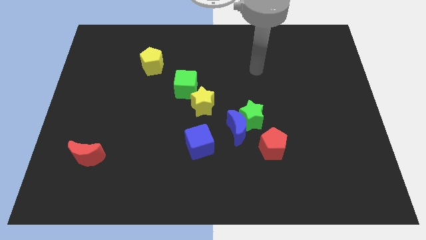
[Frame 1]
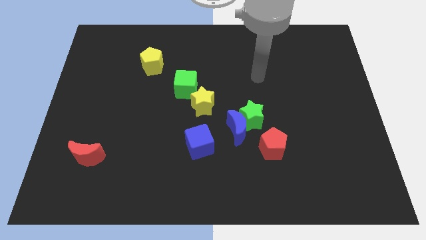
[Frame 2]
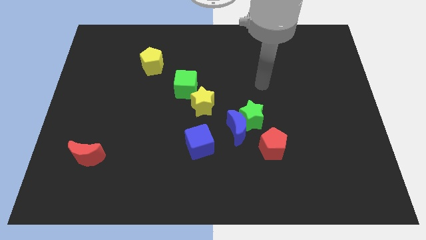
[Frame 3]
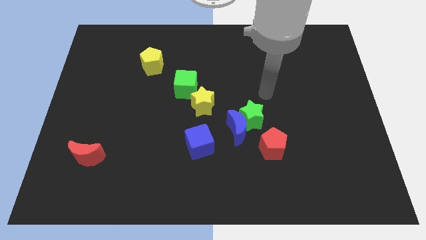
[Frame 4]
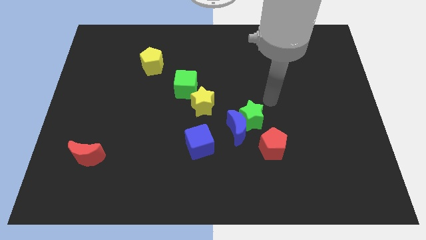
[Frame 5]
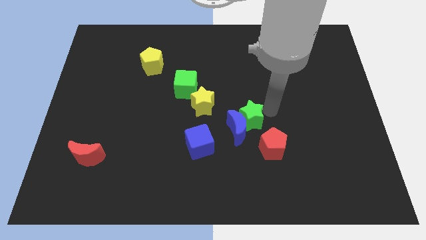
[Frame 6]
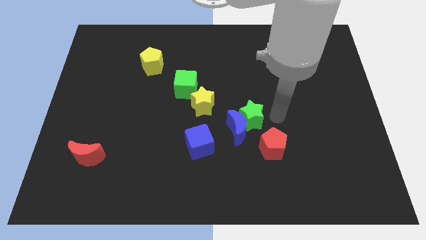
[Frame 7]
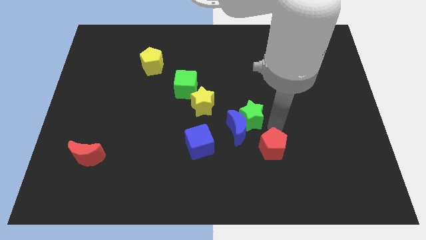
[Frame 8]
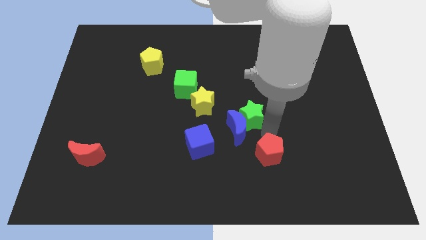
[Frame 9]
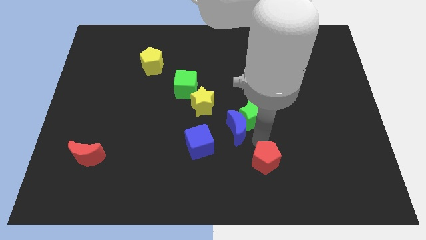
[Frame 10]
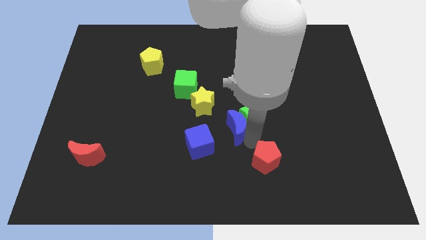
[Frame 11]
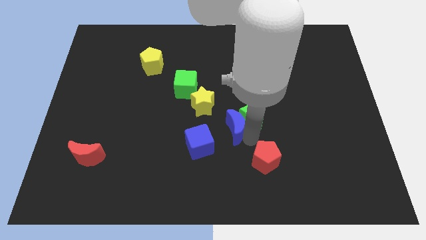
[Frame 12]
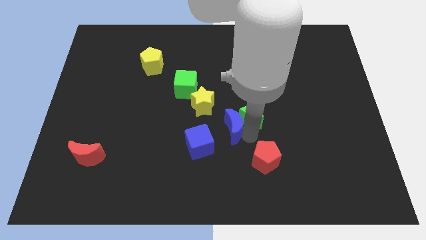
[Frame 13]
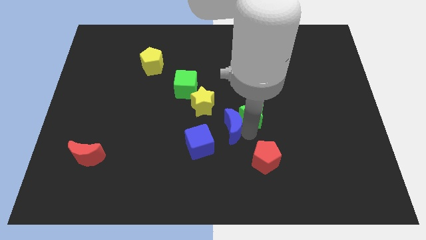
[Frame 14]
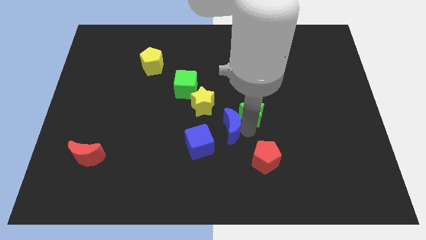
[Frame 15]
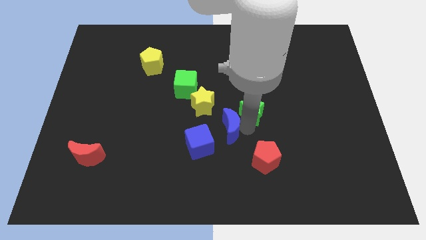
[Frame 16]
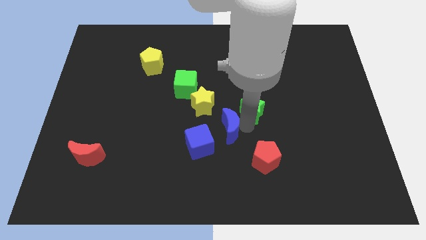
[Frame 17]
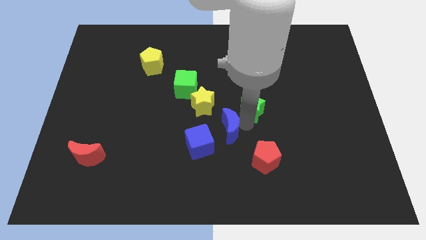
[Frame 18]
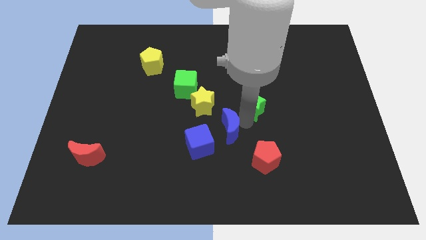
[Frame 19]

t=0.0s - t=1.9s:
pull the green star apart from the blue moon and red pentagon

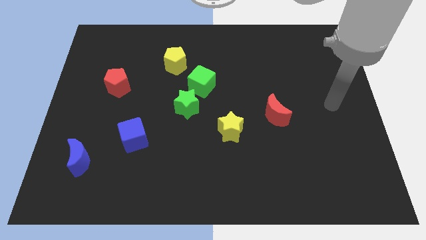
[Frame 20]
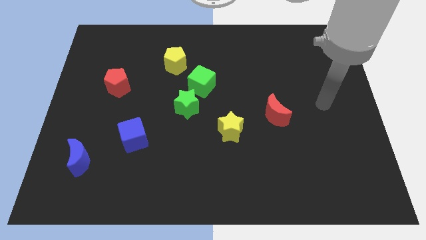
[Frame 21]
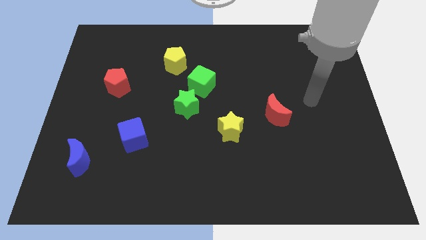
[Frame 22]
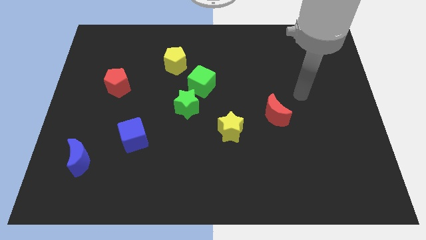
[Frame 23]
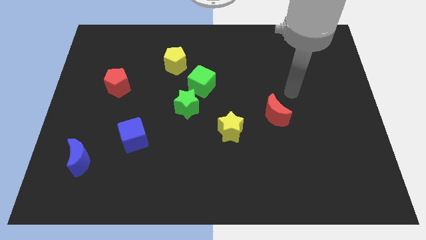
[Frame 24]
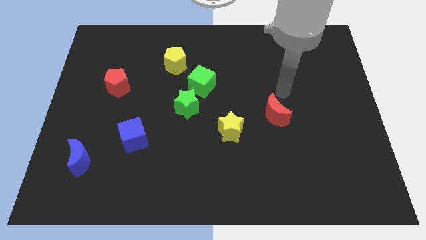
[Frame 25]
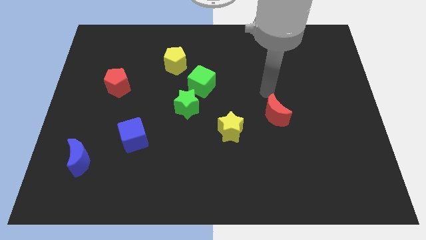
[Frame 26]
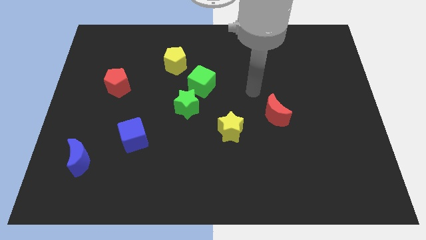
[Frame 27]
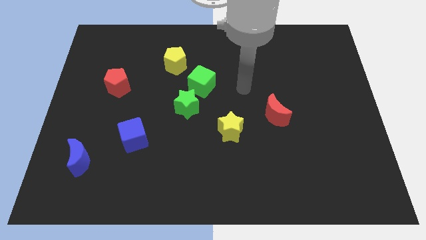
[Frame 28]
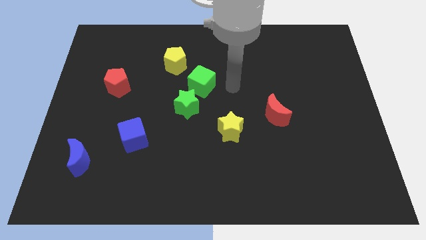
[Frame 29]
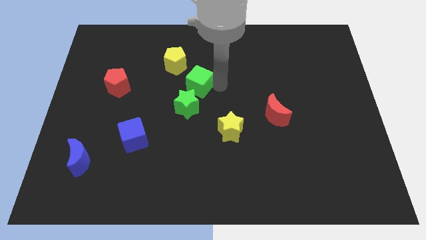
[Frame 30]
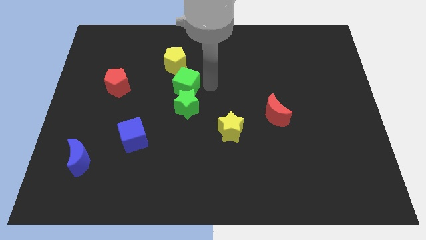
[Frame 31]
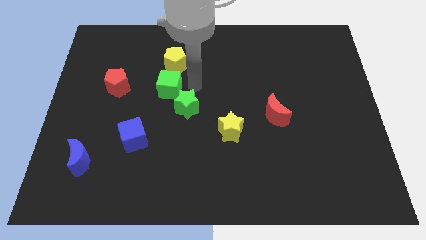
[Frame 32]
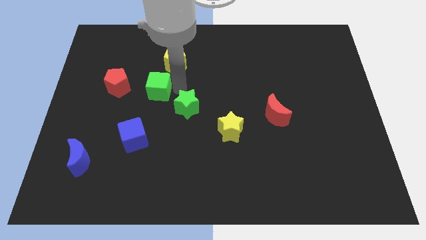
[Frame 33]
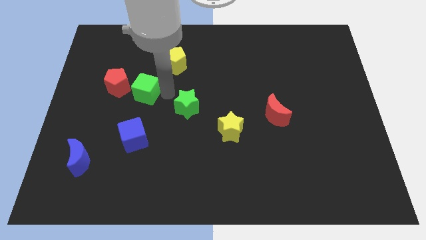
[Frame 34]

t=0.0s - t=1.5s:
move the green star away from the green cube

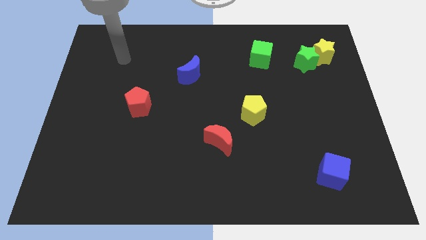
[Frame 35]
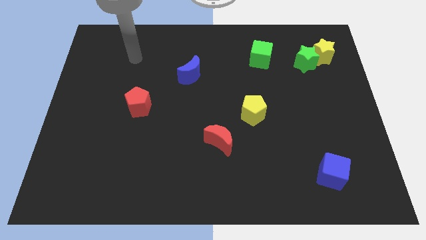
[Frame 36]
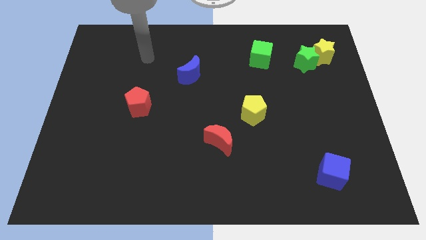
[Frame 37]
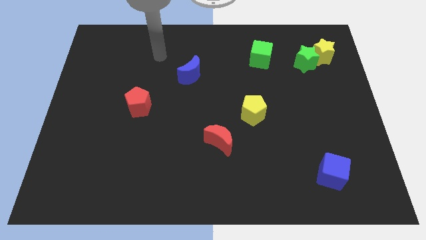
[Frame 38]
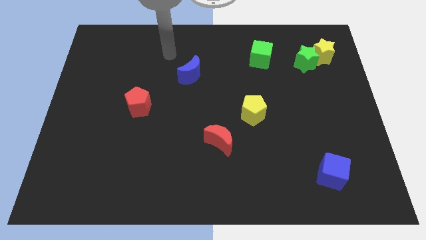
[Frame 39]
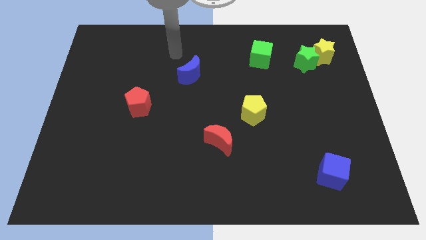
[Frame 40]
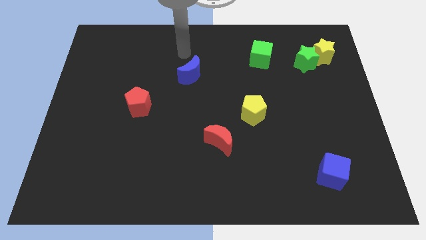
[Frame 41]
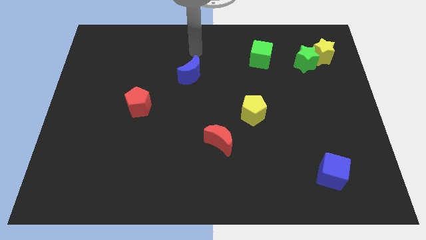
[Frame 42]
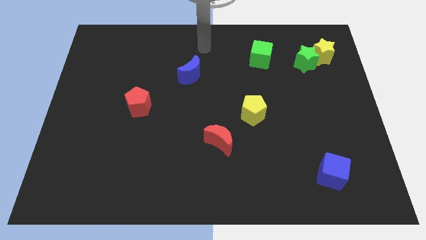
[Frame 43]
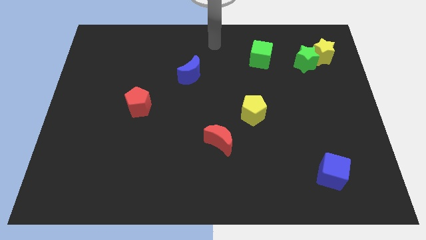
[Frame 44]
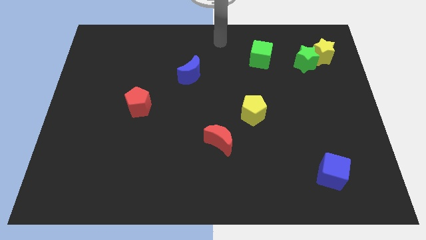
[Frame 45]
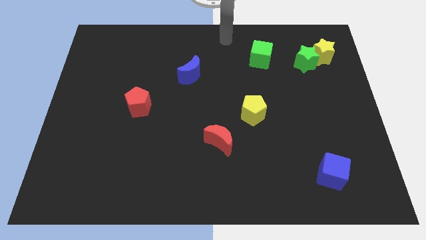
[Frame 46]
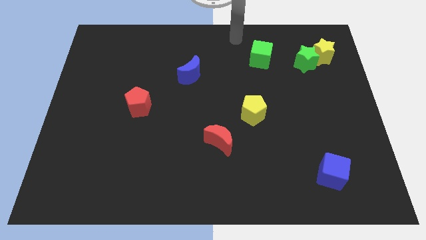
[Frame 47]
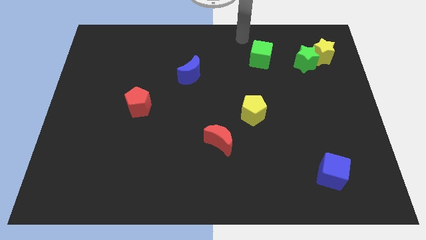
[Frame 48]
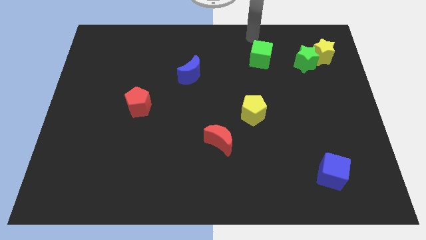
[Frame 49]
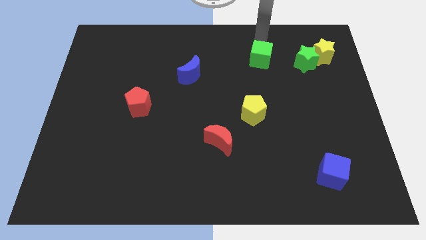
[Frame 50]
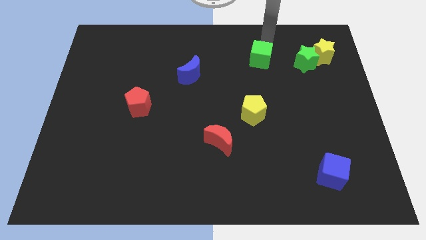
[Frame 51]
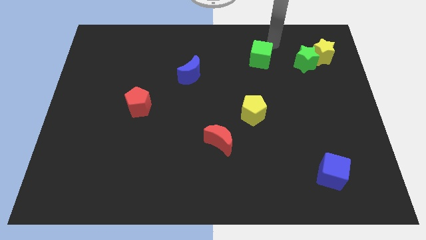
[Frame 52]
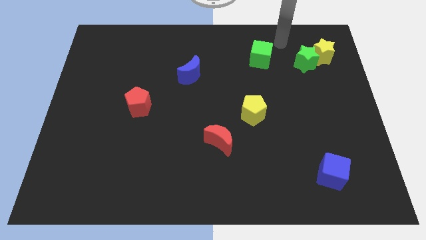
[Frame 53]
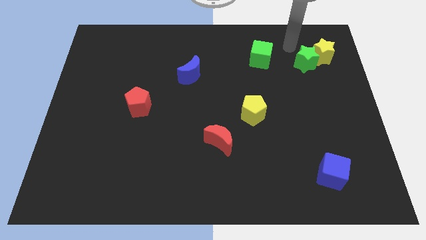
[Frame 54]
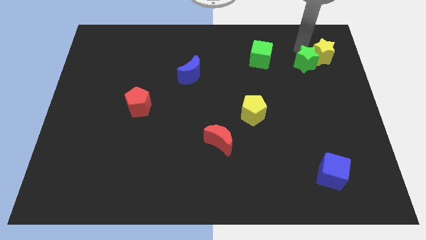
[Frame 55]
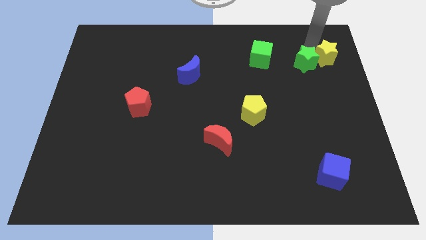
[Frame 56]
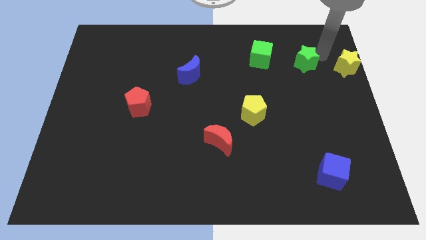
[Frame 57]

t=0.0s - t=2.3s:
move the green star away from the yellow star

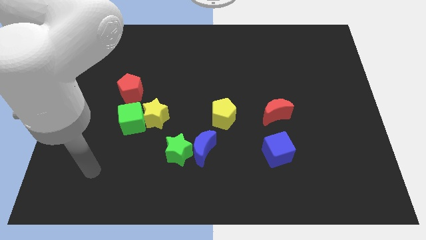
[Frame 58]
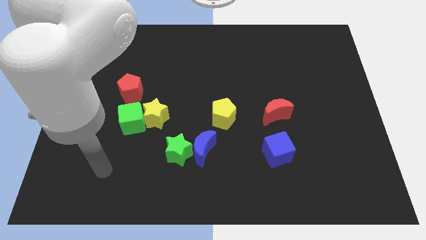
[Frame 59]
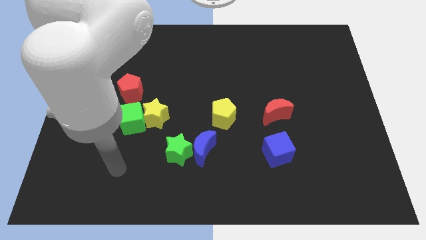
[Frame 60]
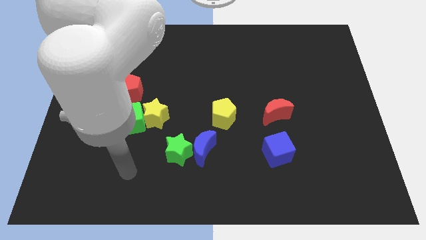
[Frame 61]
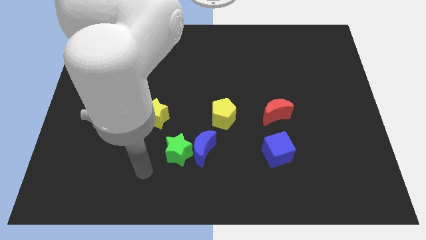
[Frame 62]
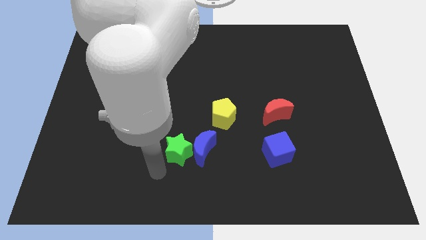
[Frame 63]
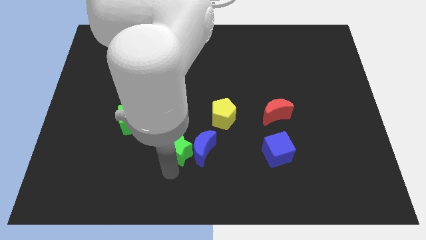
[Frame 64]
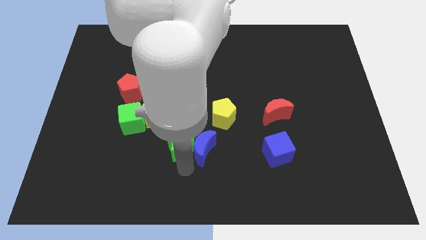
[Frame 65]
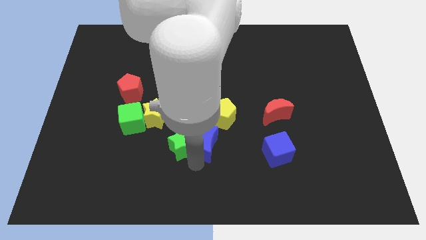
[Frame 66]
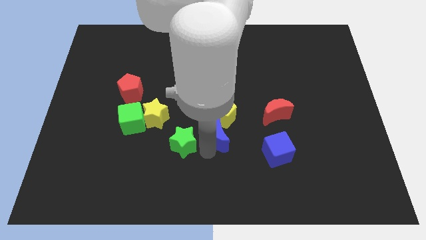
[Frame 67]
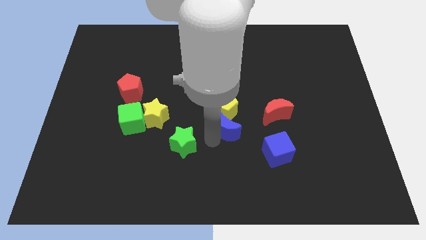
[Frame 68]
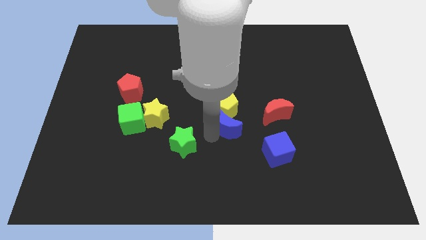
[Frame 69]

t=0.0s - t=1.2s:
separate the green star from the blue moon

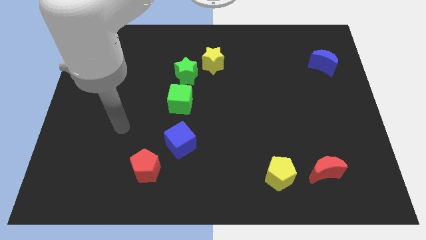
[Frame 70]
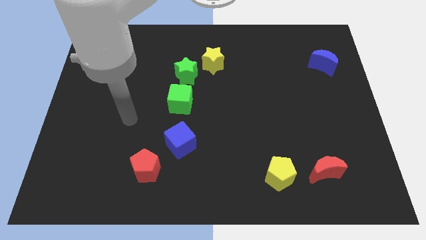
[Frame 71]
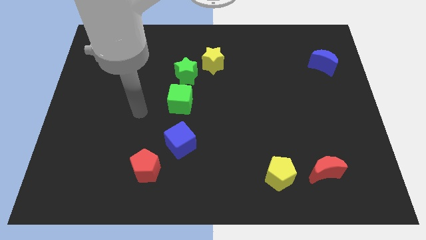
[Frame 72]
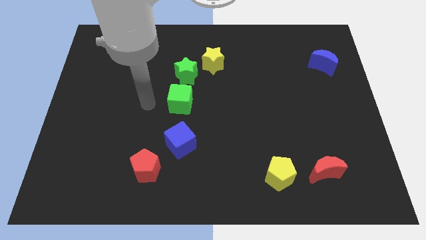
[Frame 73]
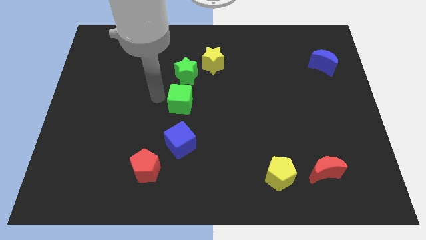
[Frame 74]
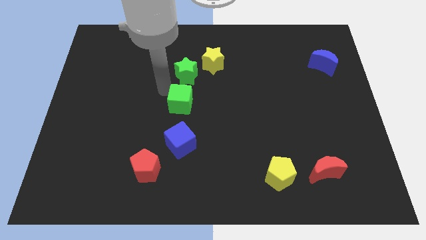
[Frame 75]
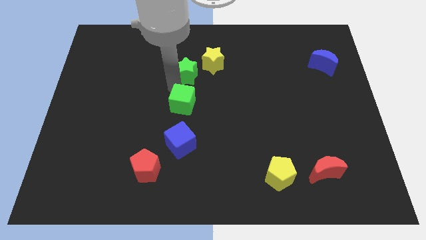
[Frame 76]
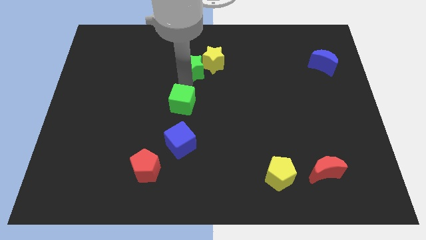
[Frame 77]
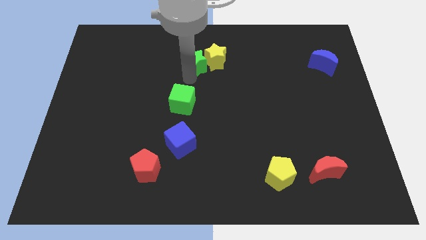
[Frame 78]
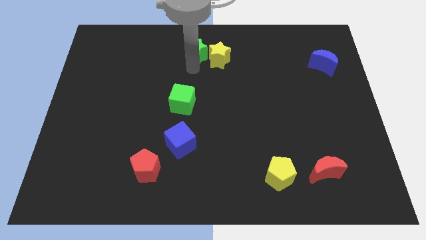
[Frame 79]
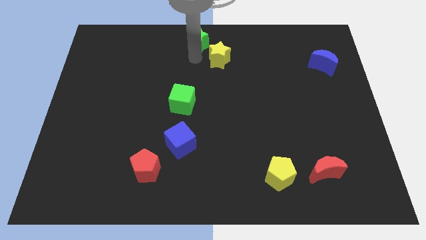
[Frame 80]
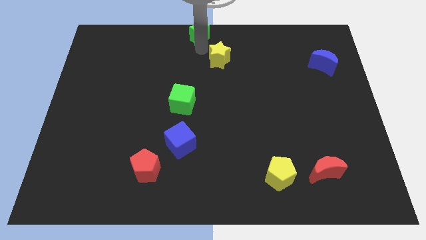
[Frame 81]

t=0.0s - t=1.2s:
move the yellow star away from the green star

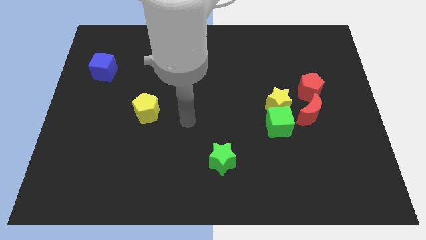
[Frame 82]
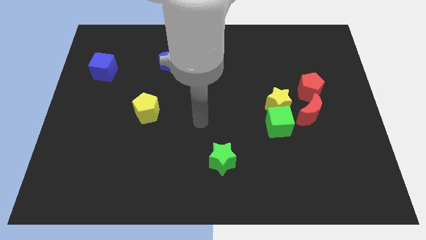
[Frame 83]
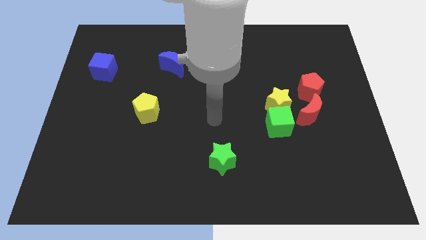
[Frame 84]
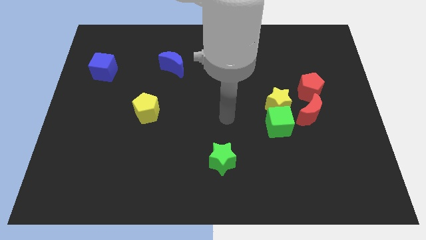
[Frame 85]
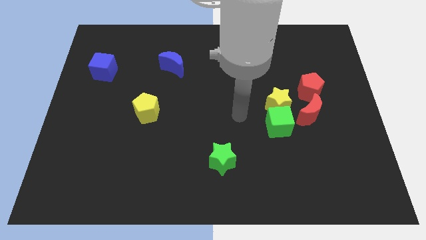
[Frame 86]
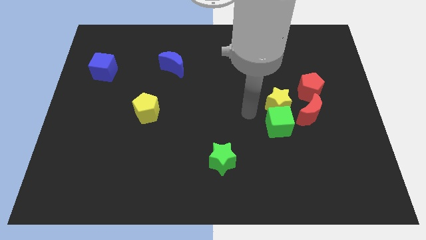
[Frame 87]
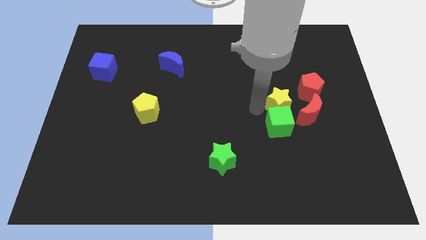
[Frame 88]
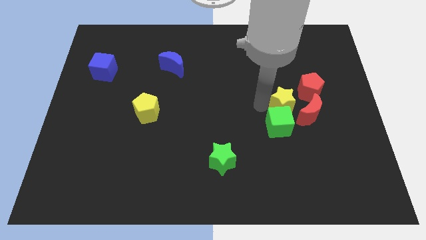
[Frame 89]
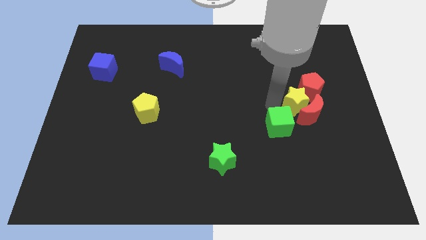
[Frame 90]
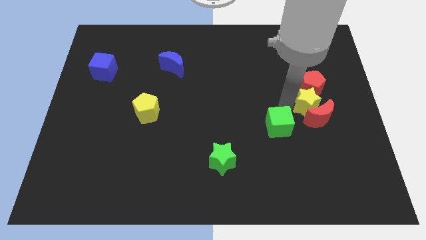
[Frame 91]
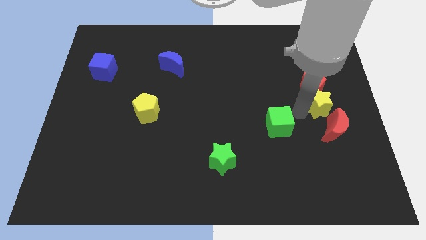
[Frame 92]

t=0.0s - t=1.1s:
pull the green cube apart from the yellow star and red moon
